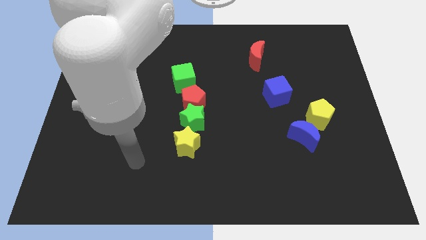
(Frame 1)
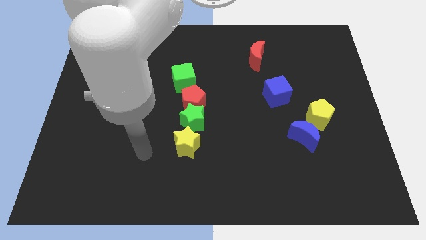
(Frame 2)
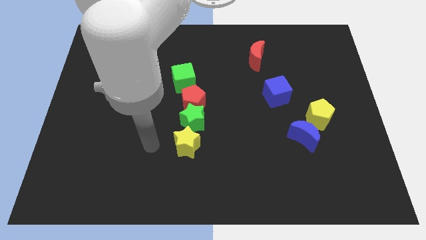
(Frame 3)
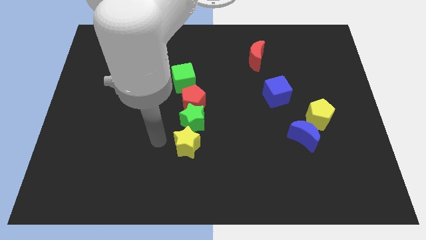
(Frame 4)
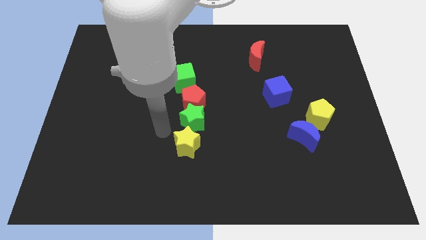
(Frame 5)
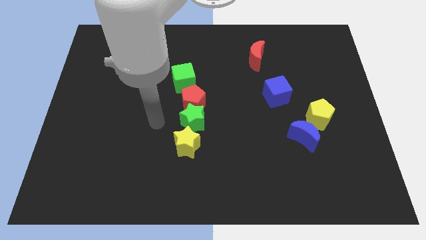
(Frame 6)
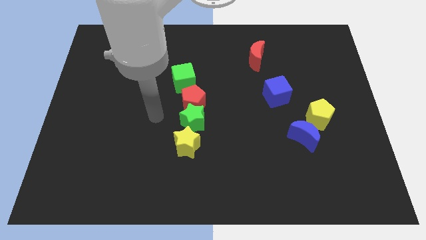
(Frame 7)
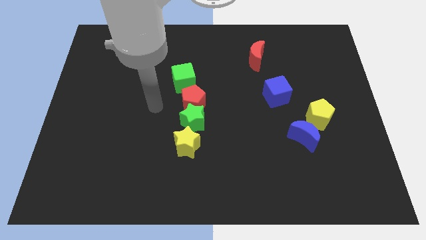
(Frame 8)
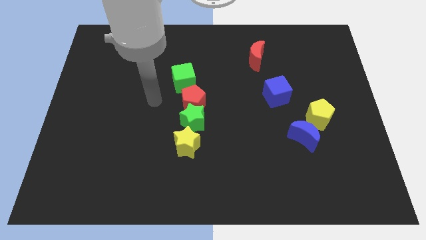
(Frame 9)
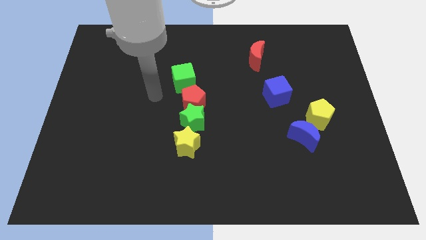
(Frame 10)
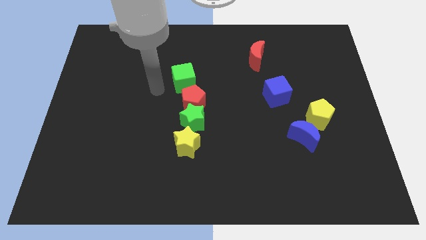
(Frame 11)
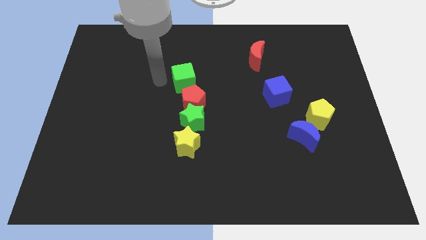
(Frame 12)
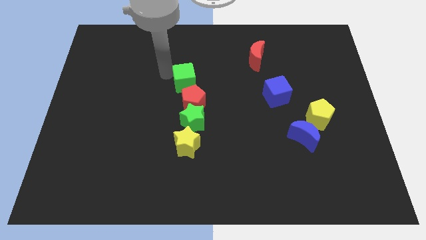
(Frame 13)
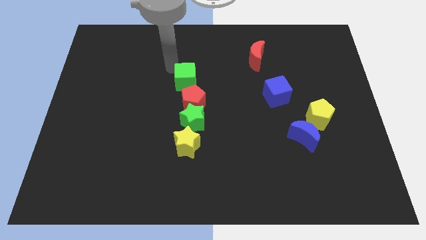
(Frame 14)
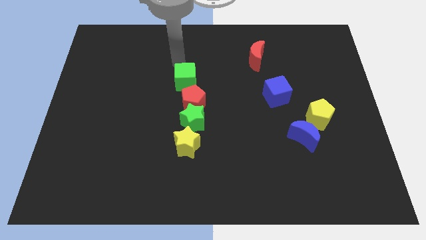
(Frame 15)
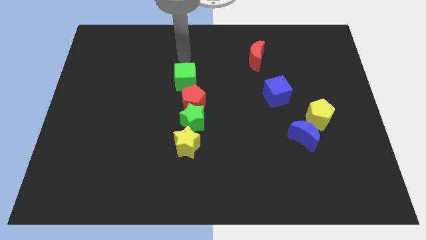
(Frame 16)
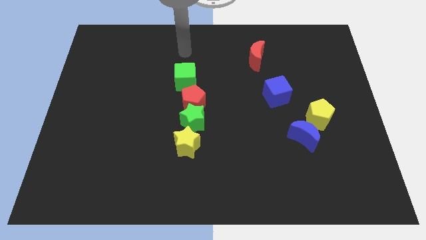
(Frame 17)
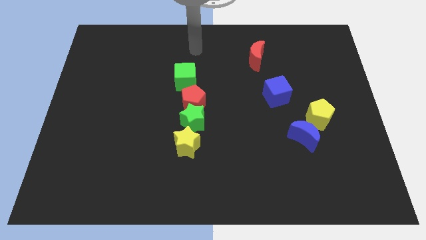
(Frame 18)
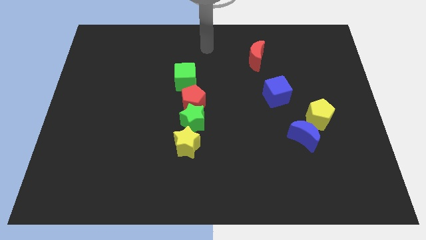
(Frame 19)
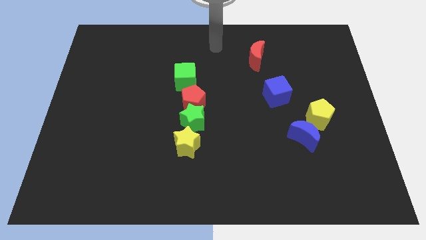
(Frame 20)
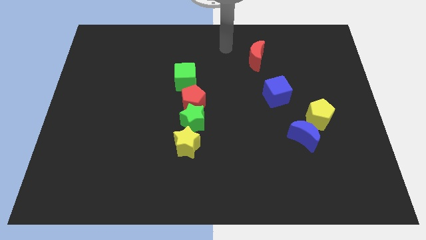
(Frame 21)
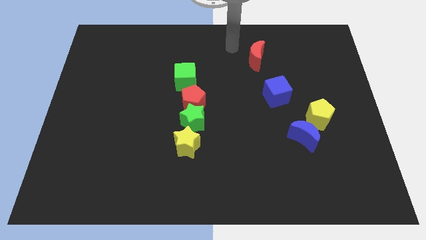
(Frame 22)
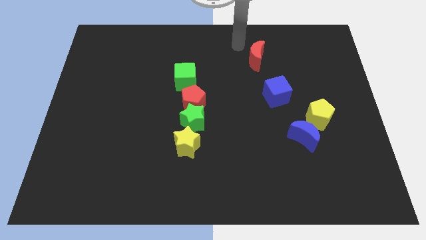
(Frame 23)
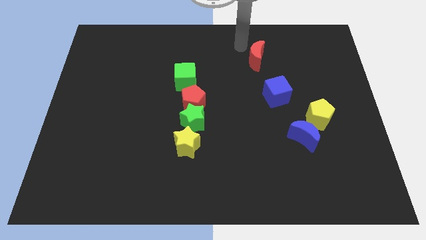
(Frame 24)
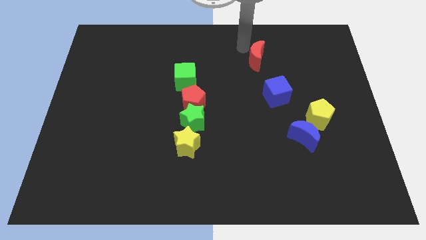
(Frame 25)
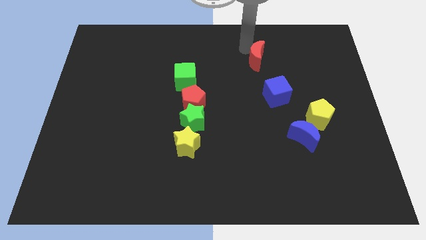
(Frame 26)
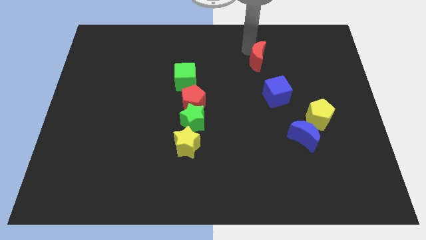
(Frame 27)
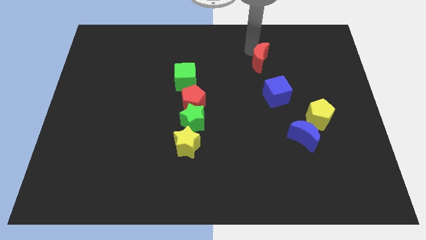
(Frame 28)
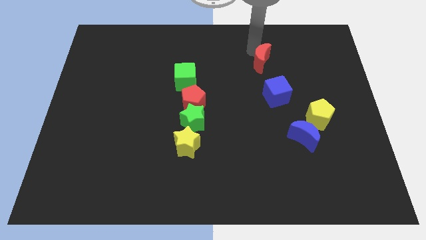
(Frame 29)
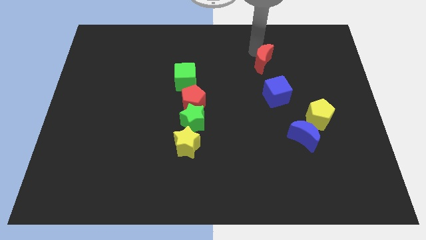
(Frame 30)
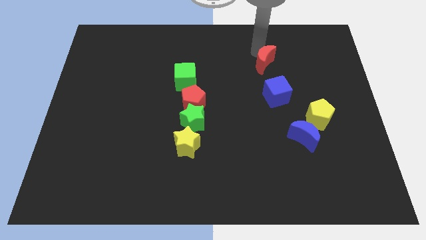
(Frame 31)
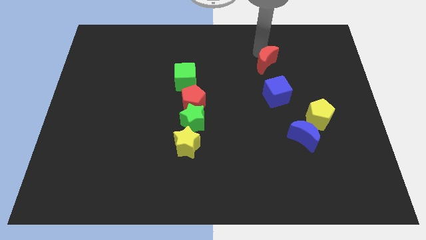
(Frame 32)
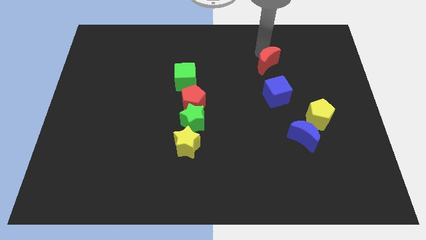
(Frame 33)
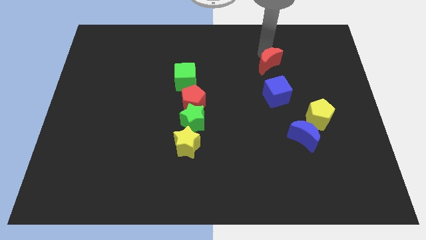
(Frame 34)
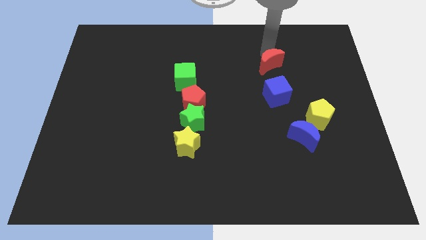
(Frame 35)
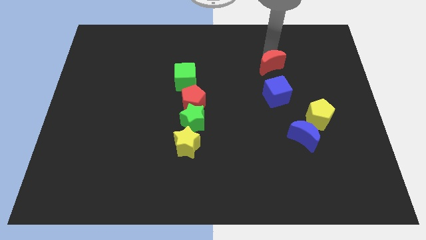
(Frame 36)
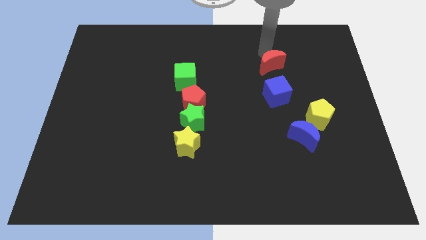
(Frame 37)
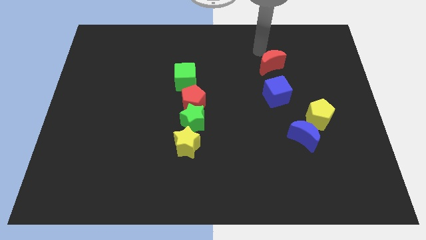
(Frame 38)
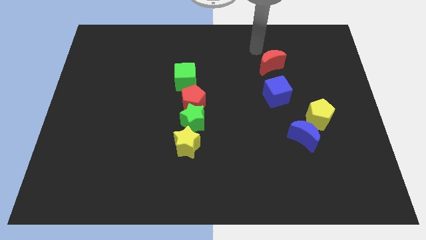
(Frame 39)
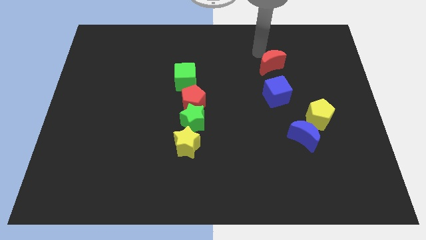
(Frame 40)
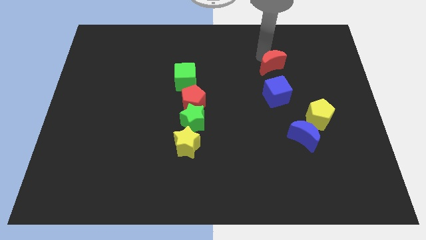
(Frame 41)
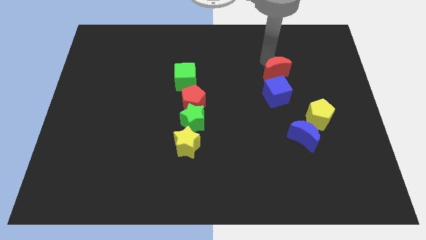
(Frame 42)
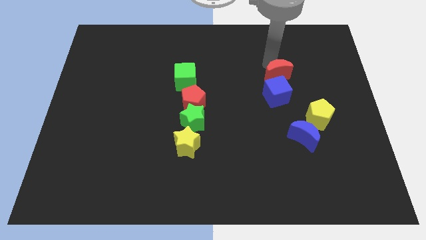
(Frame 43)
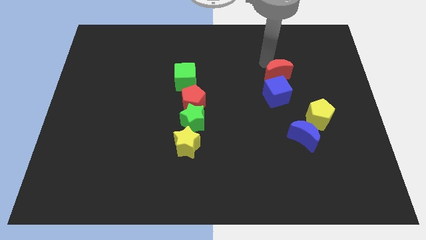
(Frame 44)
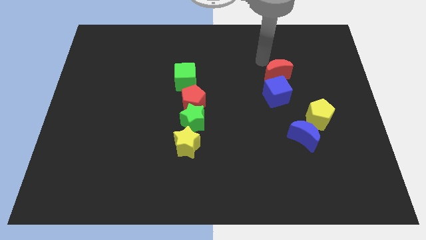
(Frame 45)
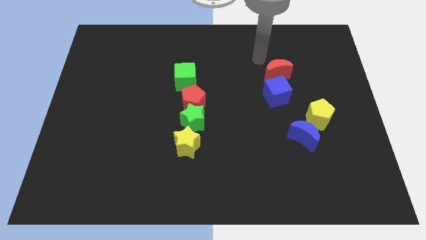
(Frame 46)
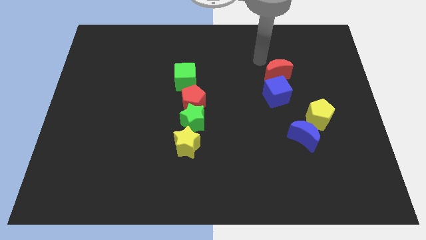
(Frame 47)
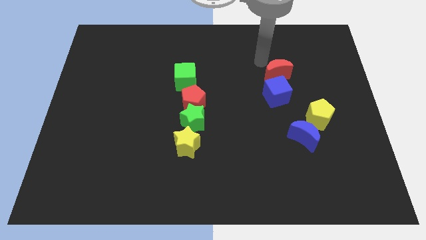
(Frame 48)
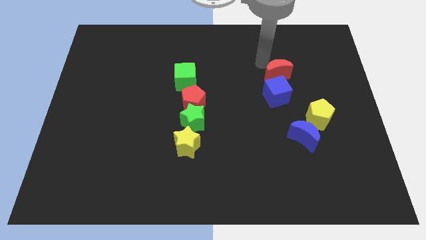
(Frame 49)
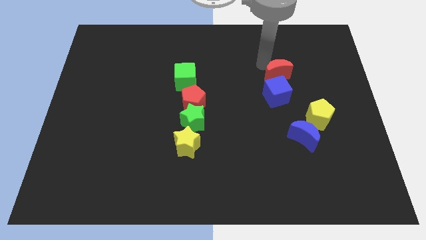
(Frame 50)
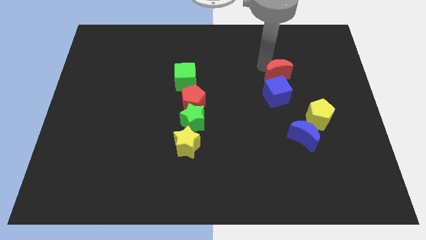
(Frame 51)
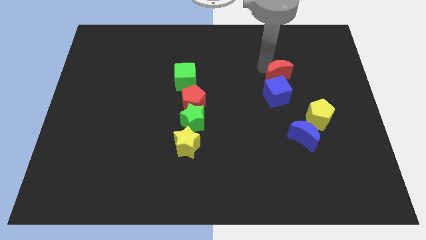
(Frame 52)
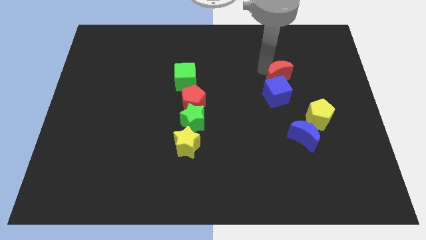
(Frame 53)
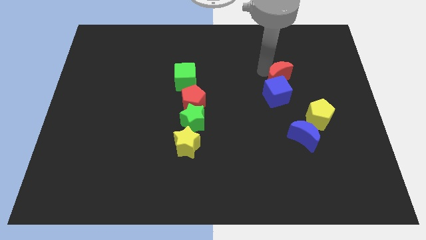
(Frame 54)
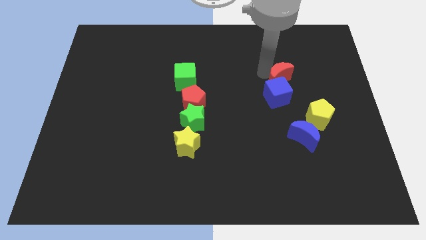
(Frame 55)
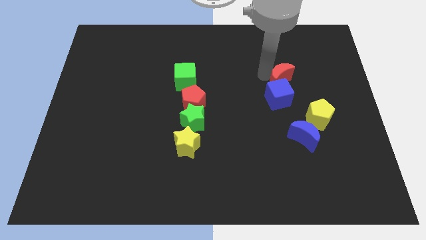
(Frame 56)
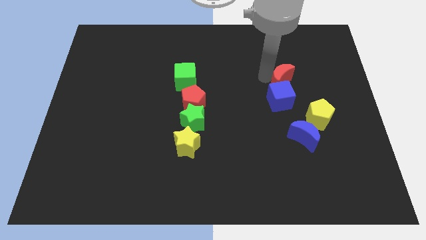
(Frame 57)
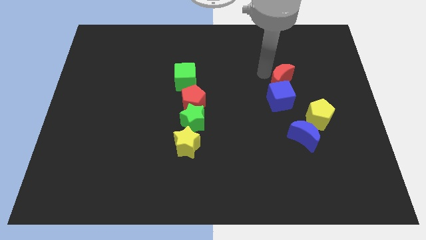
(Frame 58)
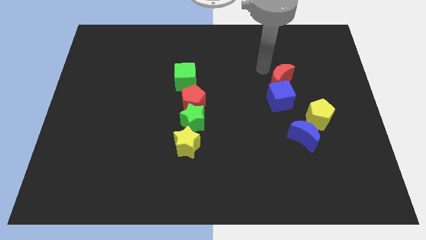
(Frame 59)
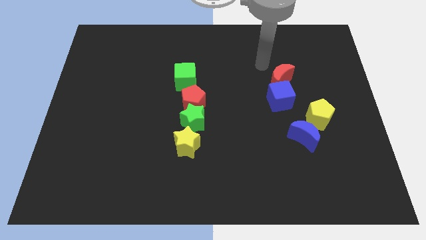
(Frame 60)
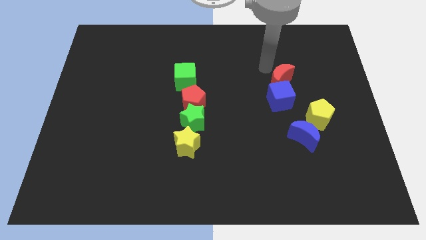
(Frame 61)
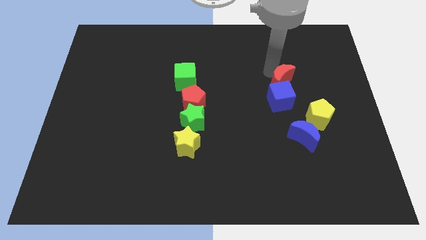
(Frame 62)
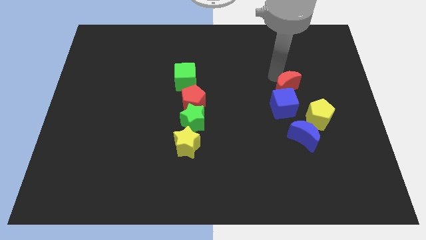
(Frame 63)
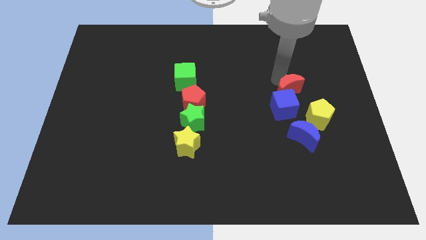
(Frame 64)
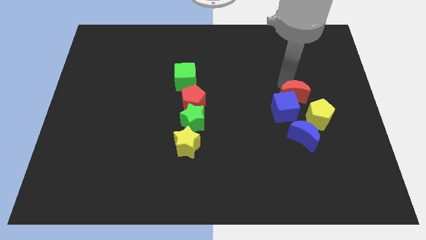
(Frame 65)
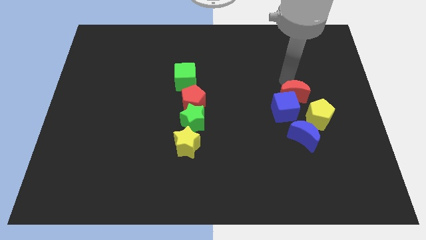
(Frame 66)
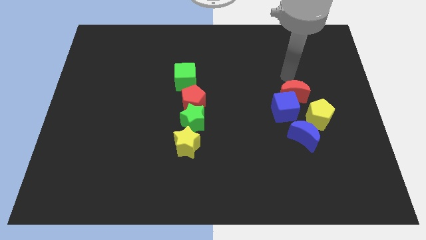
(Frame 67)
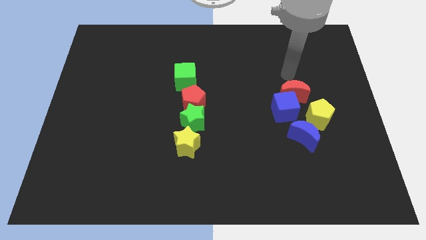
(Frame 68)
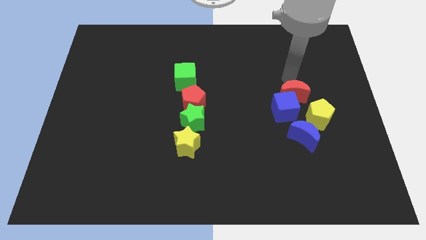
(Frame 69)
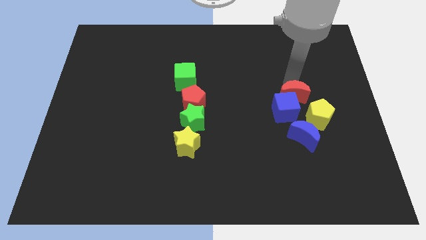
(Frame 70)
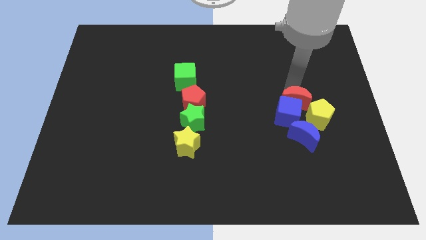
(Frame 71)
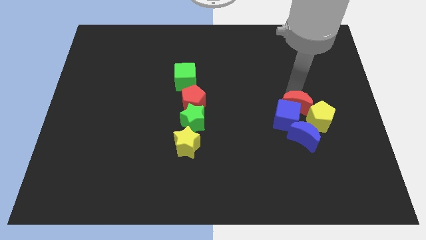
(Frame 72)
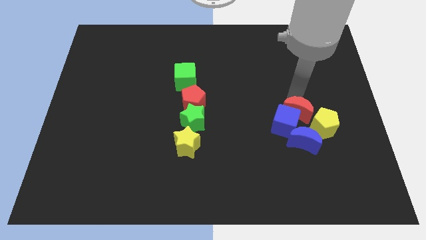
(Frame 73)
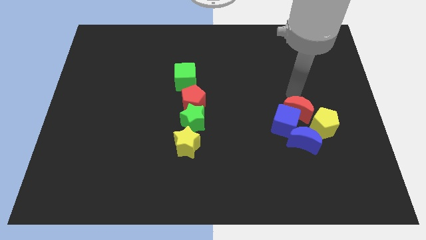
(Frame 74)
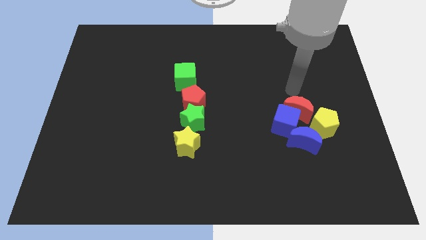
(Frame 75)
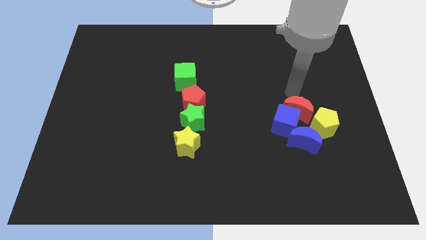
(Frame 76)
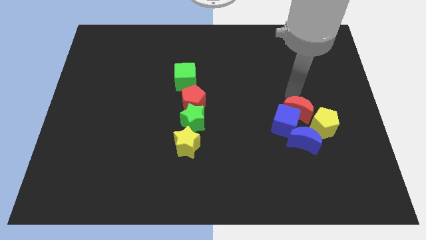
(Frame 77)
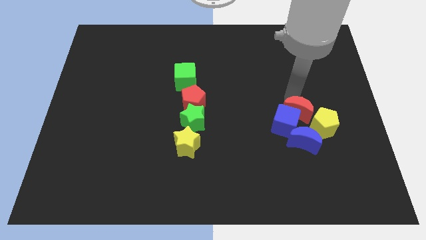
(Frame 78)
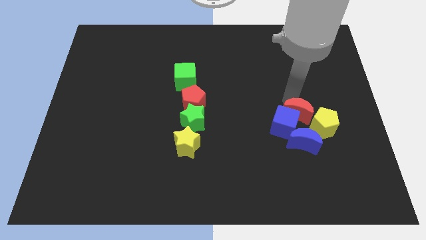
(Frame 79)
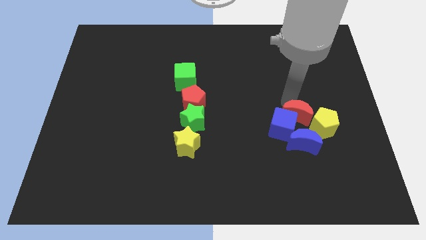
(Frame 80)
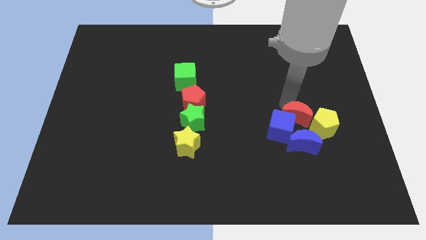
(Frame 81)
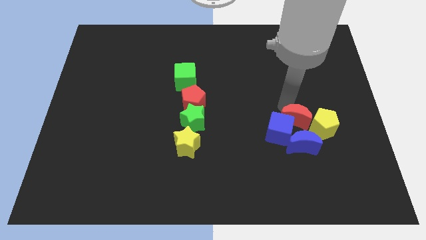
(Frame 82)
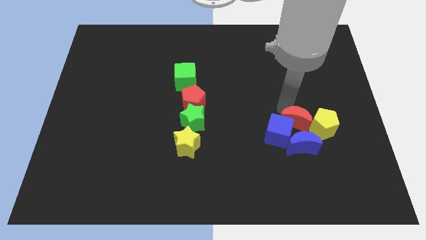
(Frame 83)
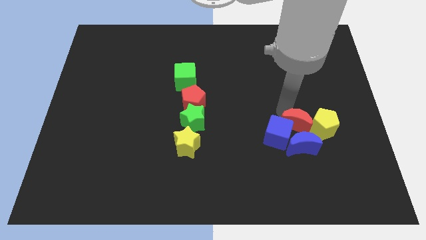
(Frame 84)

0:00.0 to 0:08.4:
push the red moon to the blue moon
